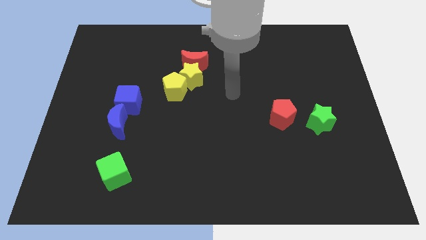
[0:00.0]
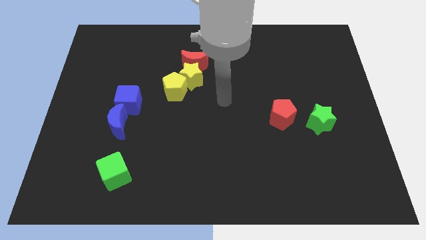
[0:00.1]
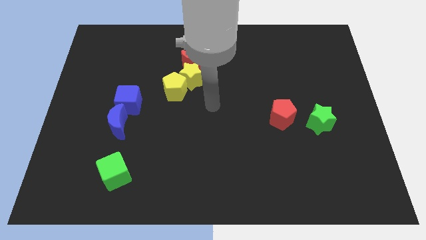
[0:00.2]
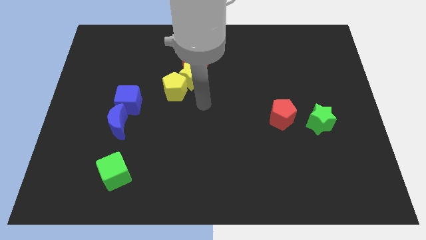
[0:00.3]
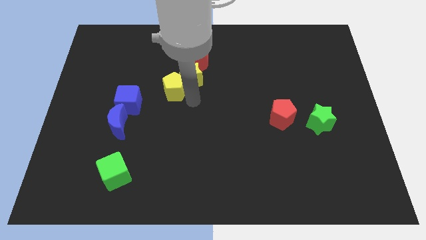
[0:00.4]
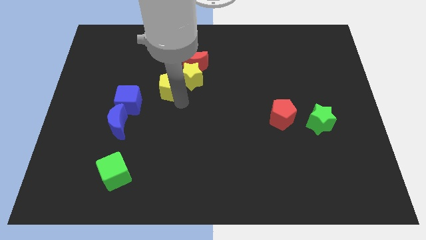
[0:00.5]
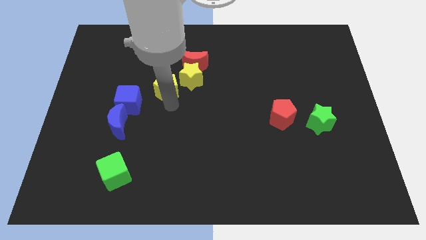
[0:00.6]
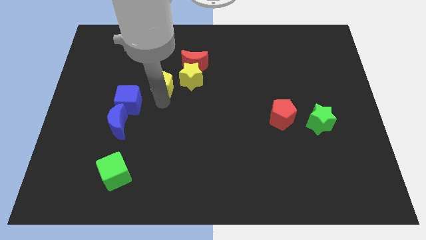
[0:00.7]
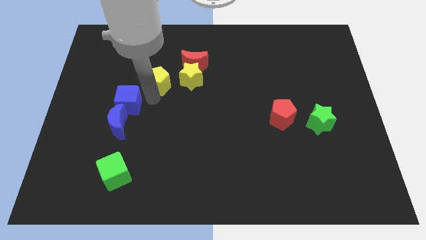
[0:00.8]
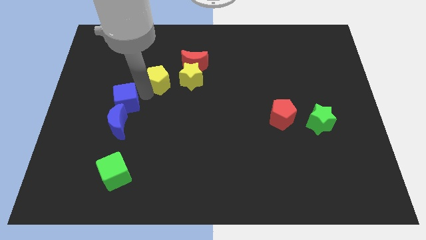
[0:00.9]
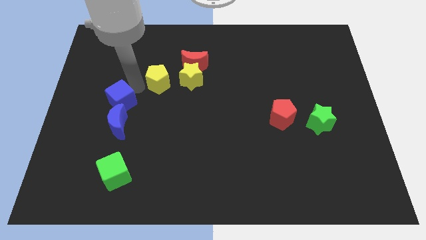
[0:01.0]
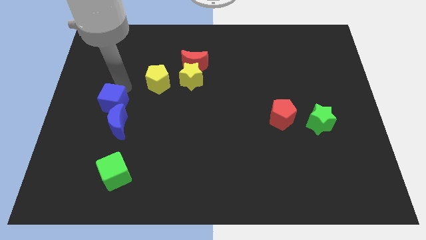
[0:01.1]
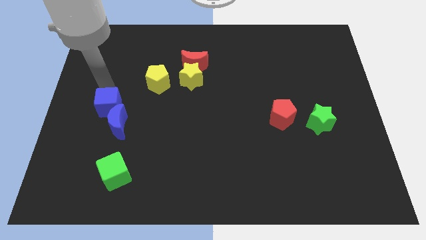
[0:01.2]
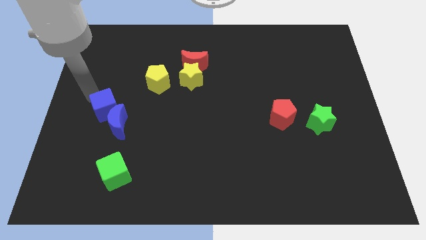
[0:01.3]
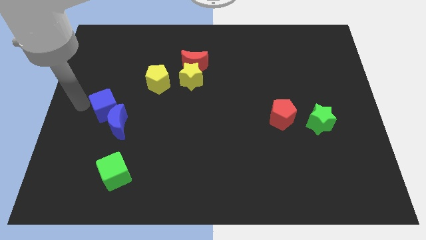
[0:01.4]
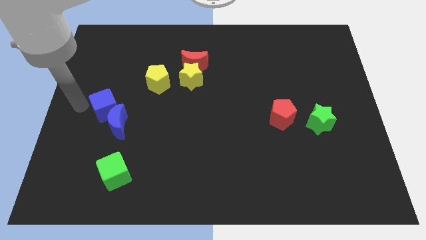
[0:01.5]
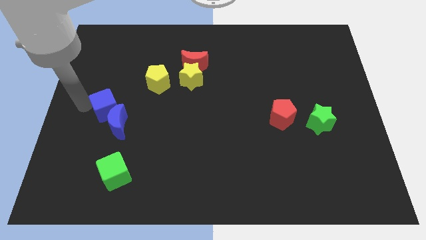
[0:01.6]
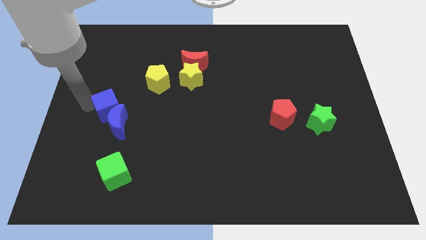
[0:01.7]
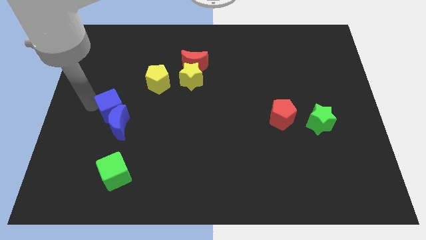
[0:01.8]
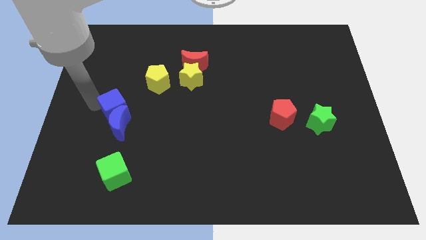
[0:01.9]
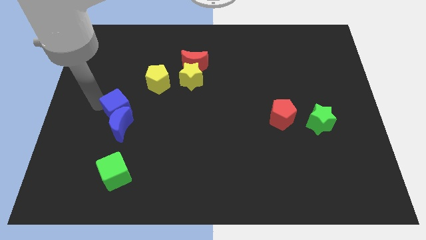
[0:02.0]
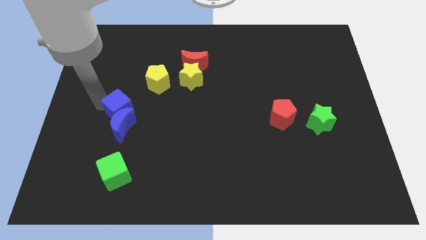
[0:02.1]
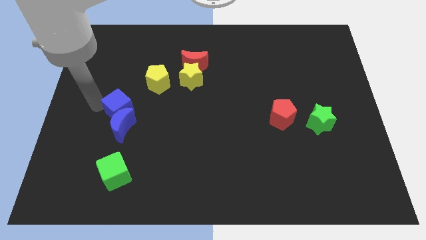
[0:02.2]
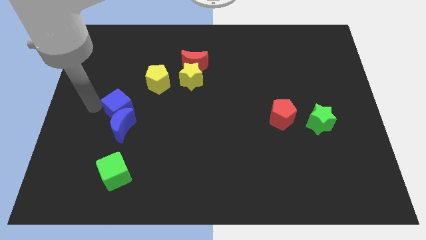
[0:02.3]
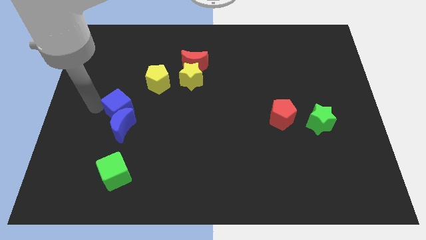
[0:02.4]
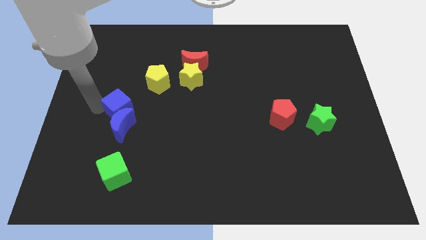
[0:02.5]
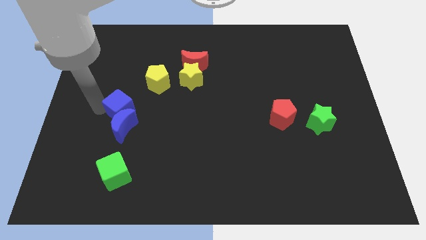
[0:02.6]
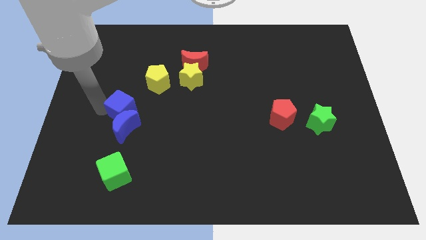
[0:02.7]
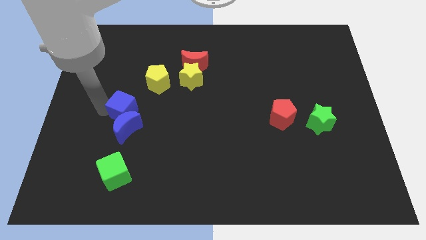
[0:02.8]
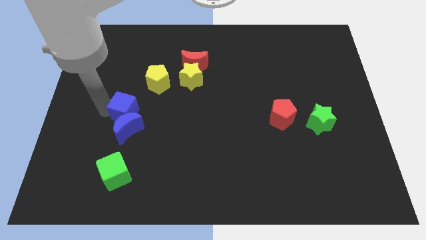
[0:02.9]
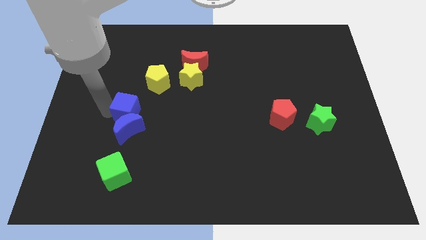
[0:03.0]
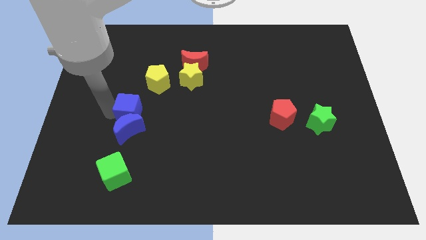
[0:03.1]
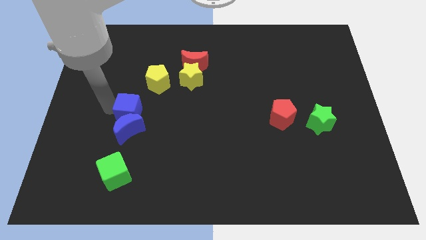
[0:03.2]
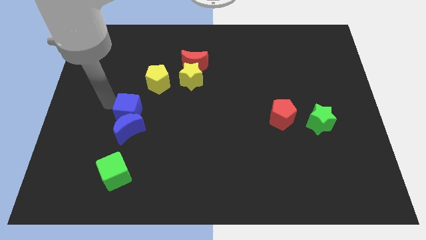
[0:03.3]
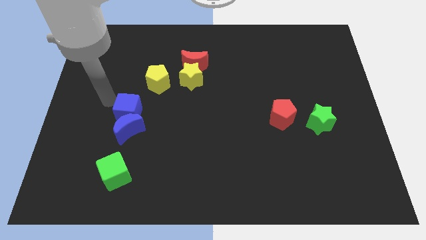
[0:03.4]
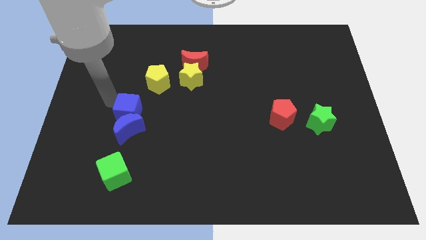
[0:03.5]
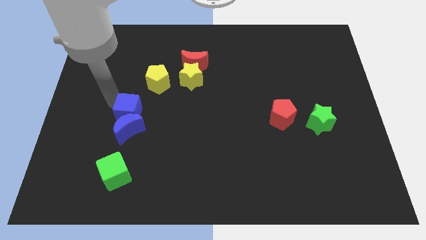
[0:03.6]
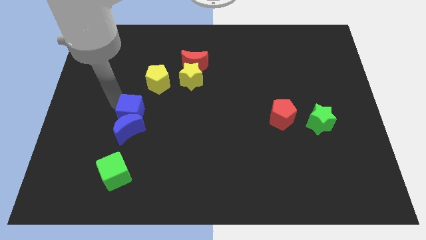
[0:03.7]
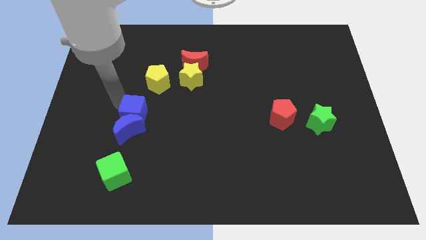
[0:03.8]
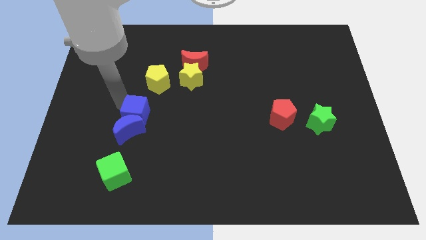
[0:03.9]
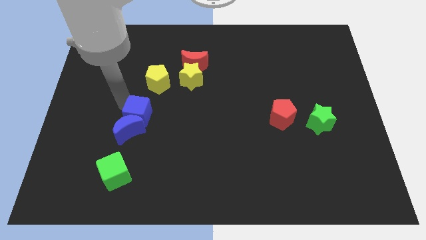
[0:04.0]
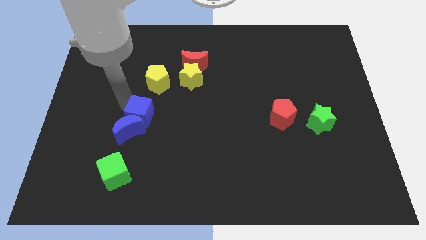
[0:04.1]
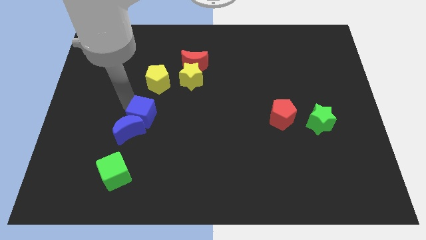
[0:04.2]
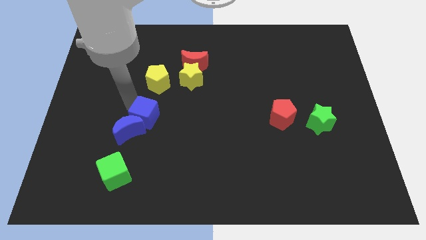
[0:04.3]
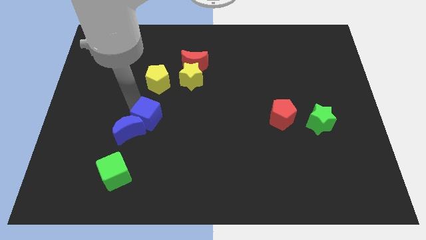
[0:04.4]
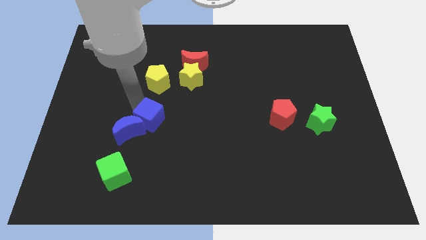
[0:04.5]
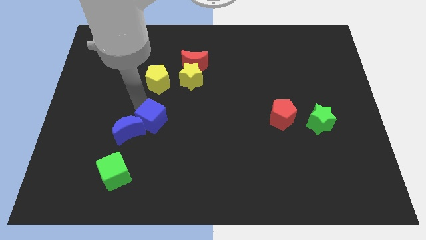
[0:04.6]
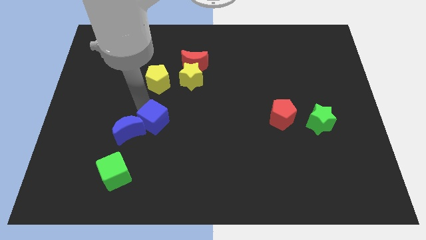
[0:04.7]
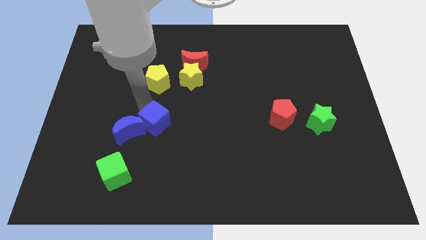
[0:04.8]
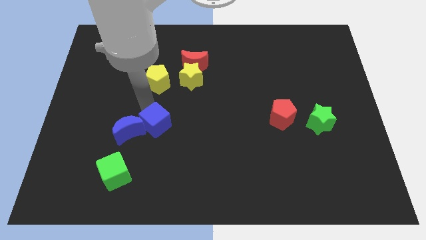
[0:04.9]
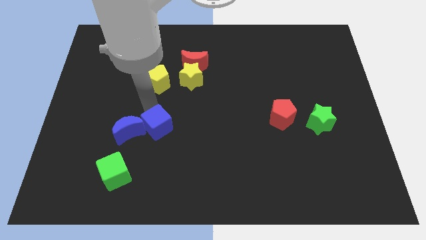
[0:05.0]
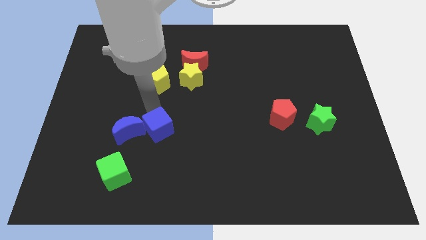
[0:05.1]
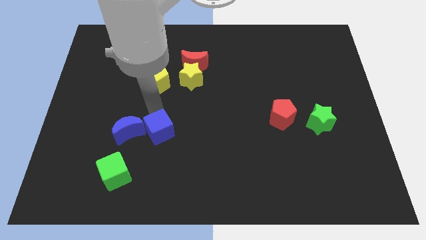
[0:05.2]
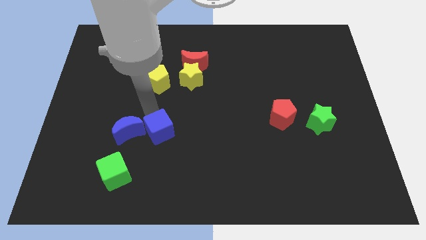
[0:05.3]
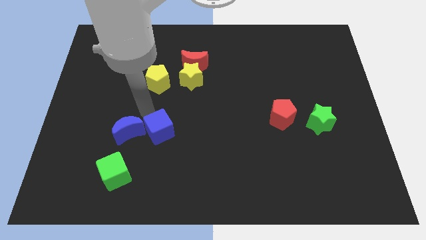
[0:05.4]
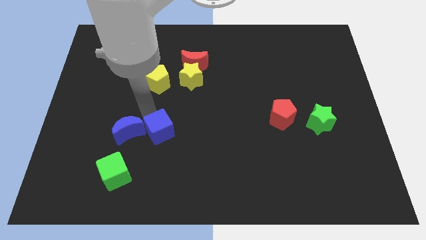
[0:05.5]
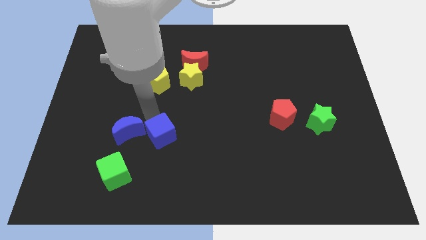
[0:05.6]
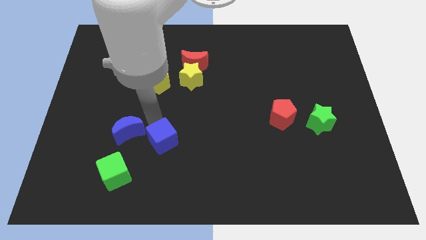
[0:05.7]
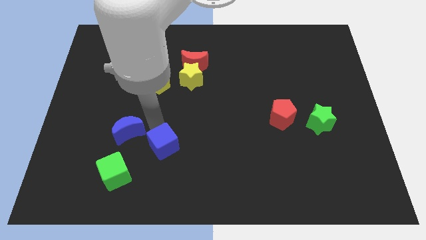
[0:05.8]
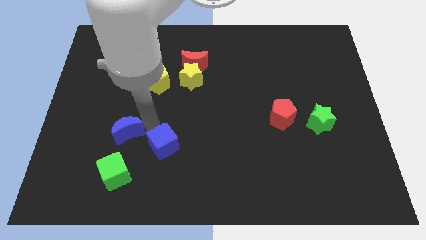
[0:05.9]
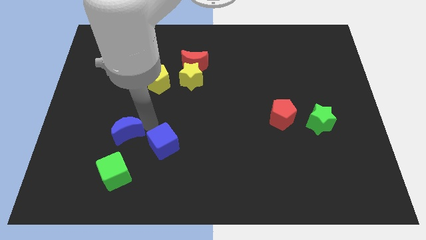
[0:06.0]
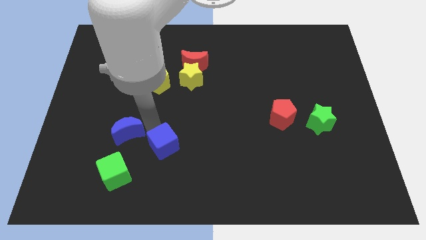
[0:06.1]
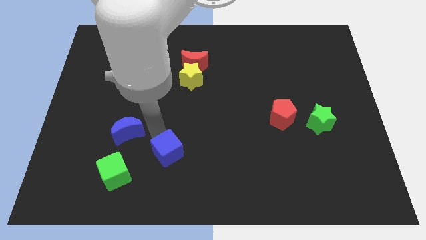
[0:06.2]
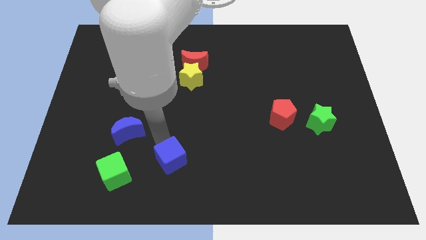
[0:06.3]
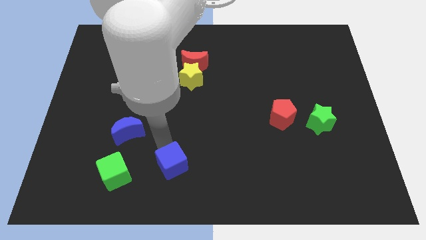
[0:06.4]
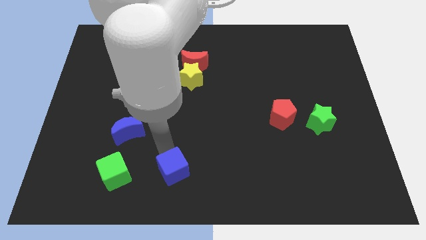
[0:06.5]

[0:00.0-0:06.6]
push the blue cube to the bottom
